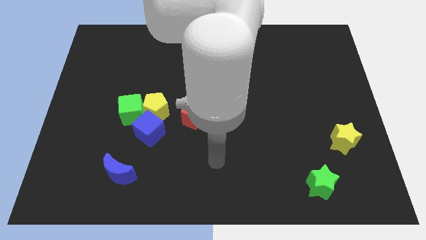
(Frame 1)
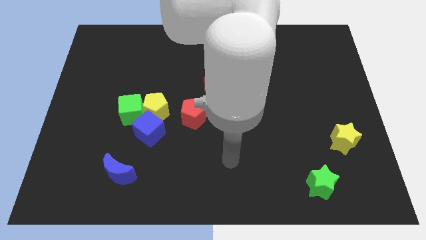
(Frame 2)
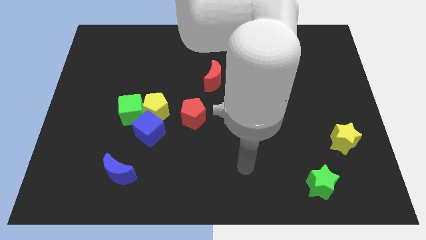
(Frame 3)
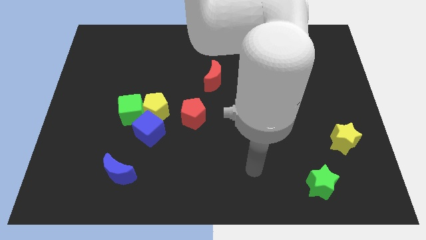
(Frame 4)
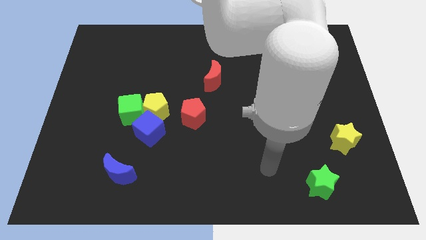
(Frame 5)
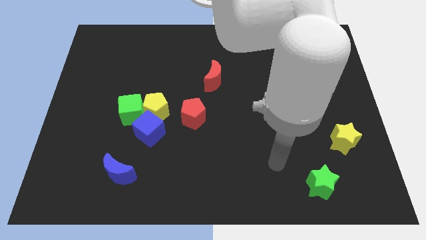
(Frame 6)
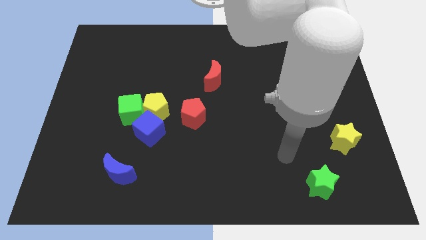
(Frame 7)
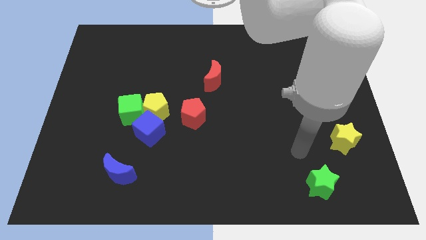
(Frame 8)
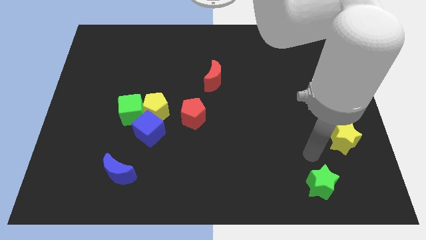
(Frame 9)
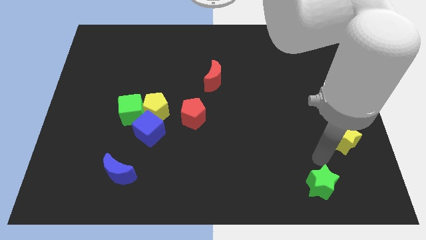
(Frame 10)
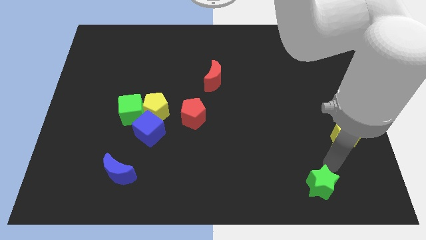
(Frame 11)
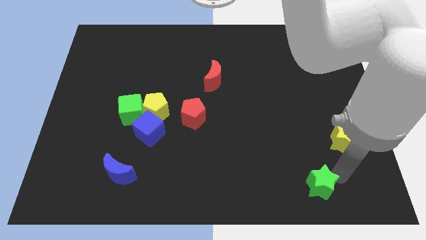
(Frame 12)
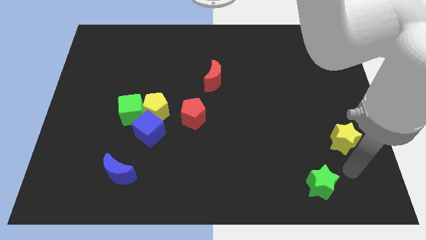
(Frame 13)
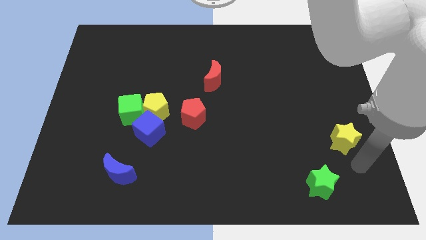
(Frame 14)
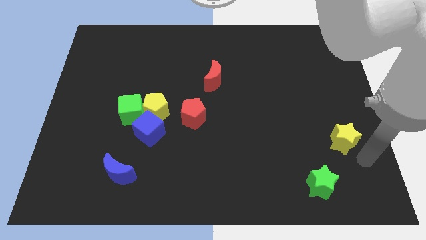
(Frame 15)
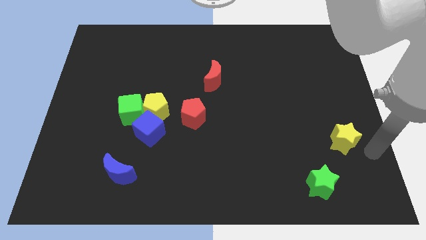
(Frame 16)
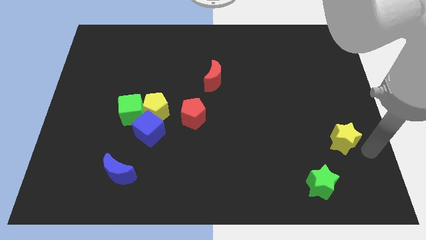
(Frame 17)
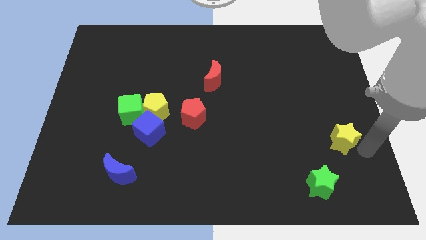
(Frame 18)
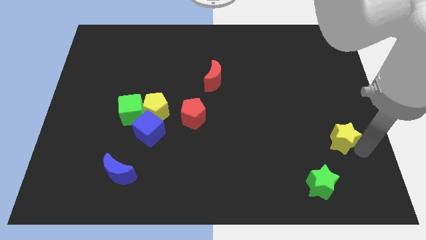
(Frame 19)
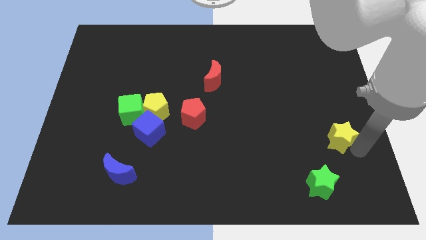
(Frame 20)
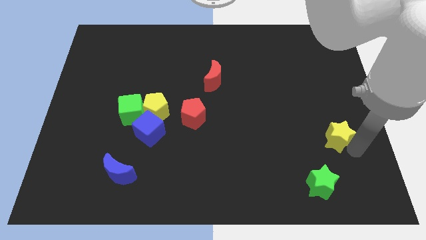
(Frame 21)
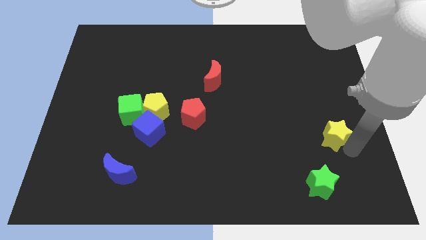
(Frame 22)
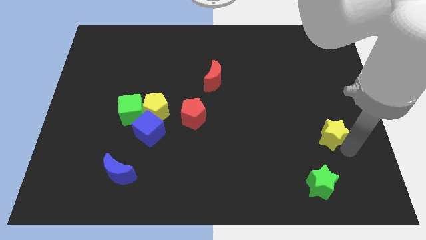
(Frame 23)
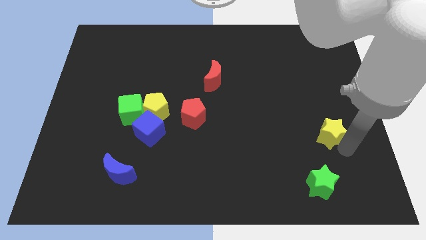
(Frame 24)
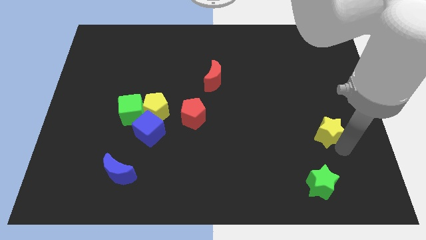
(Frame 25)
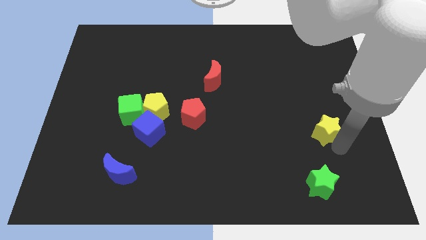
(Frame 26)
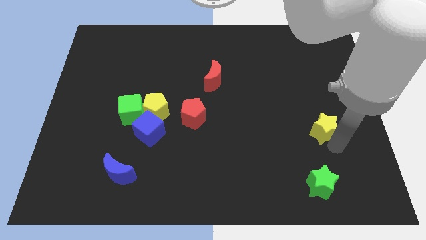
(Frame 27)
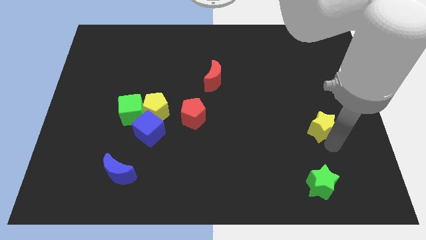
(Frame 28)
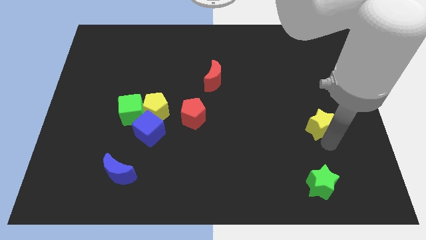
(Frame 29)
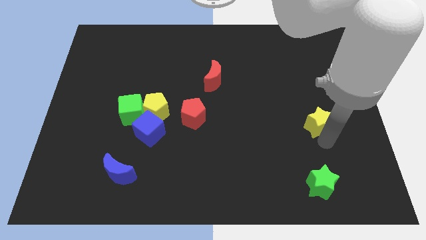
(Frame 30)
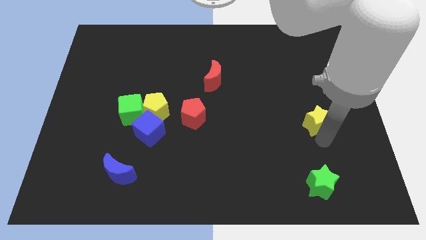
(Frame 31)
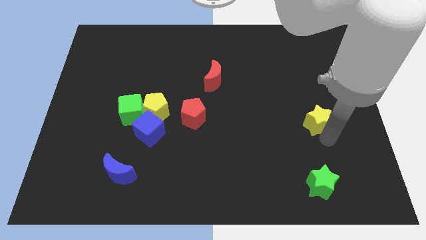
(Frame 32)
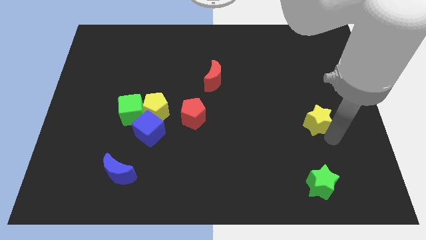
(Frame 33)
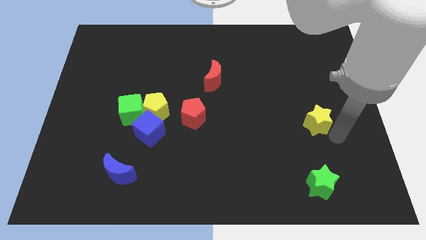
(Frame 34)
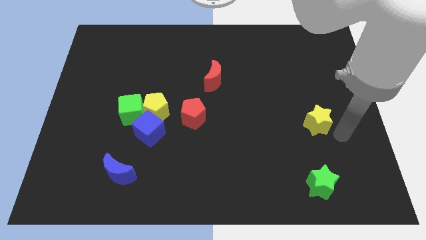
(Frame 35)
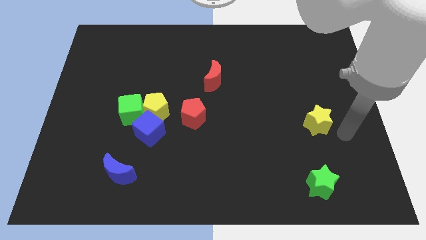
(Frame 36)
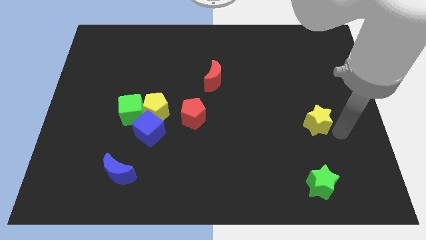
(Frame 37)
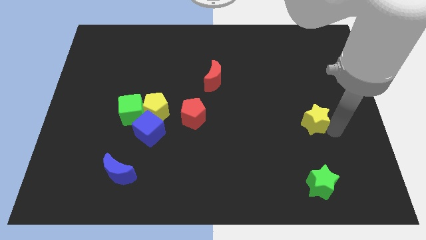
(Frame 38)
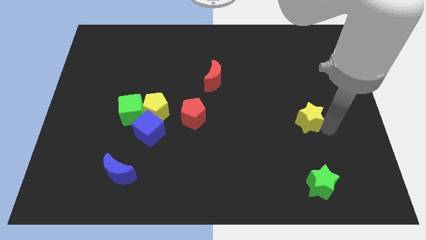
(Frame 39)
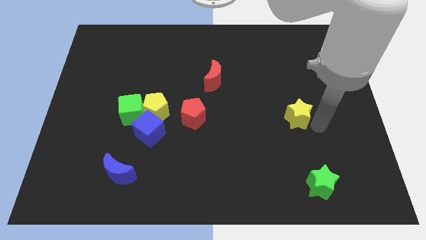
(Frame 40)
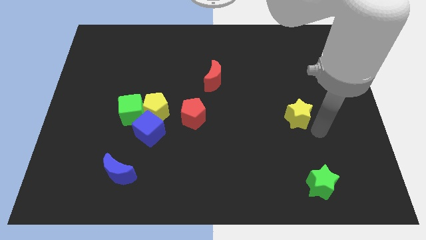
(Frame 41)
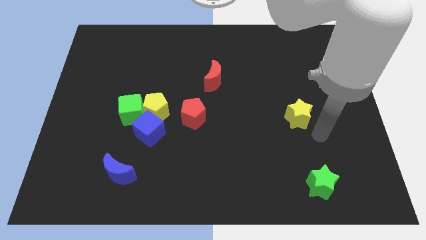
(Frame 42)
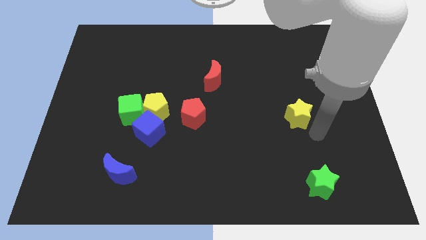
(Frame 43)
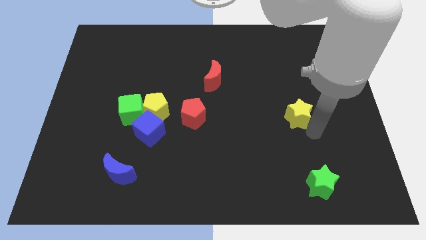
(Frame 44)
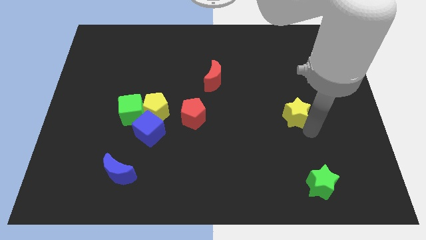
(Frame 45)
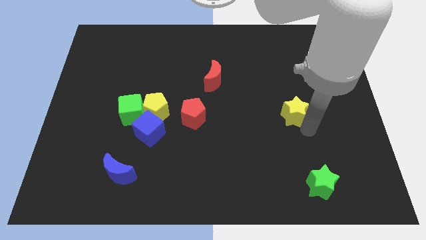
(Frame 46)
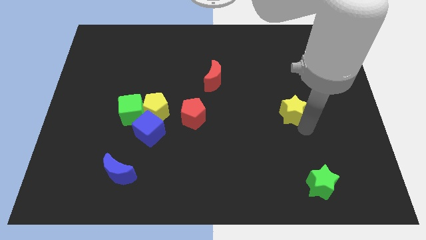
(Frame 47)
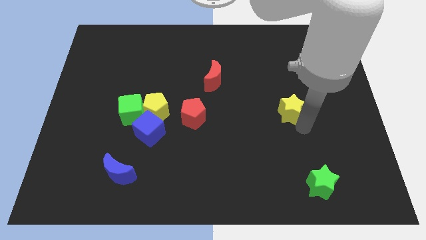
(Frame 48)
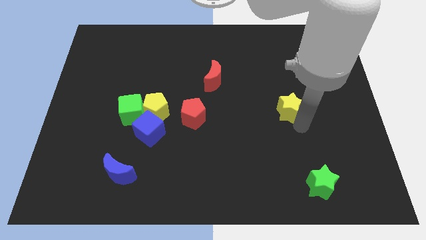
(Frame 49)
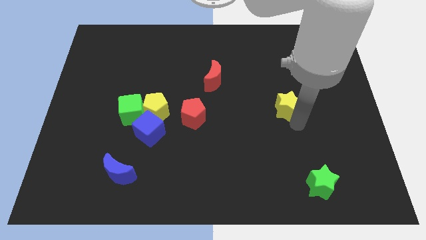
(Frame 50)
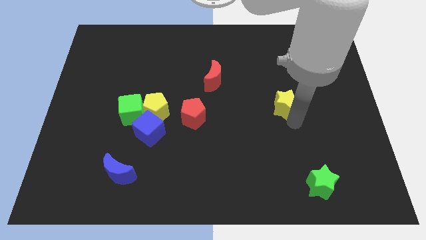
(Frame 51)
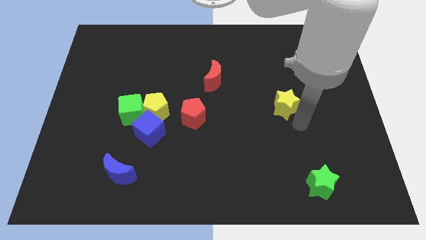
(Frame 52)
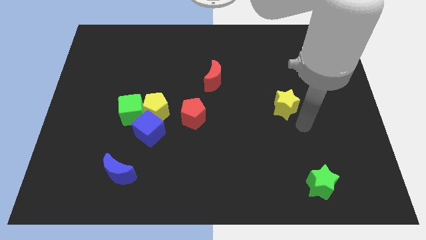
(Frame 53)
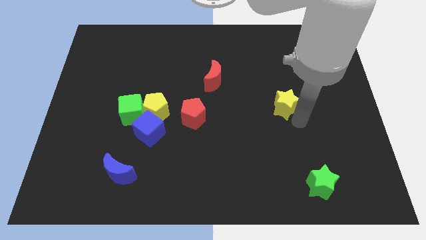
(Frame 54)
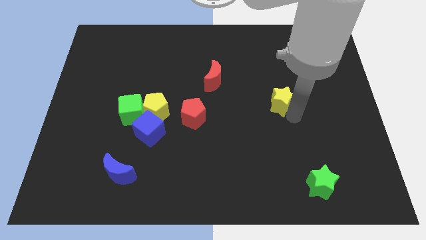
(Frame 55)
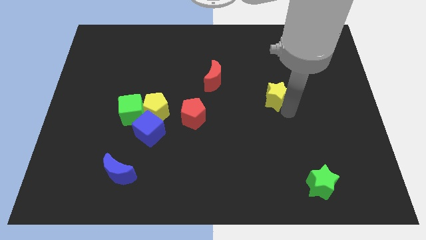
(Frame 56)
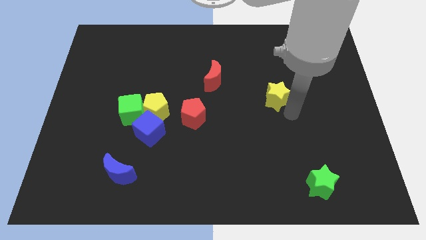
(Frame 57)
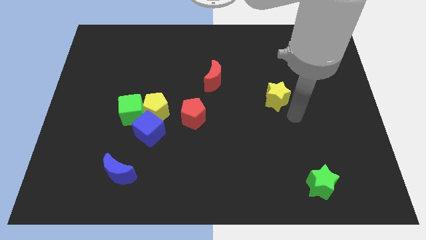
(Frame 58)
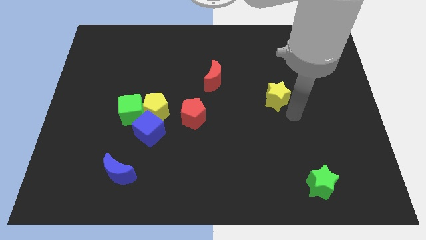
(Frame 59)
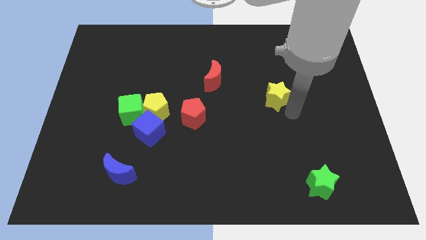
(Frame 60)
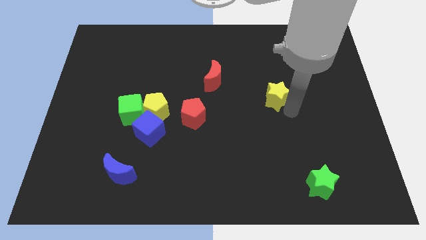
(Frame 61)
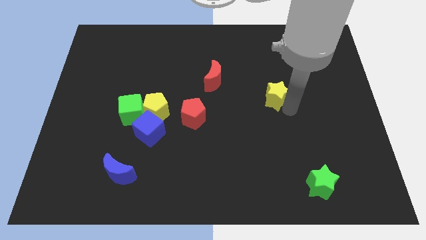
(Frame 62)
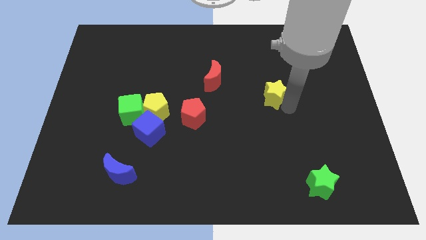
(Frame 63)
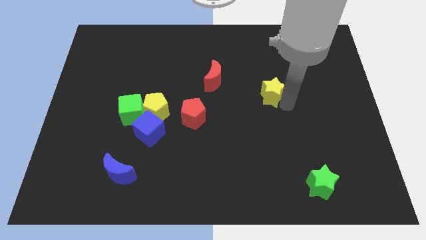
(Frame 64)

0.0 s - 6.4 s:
slide the yellow star upwards and to the left diagonally

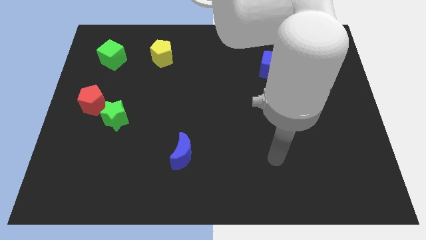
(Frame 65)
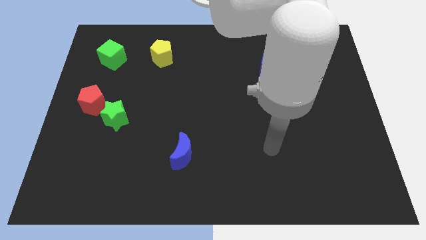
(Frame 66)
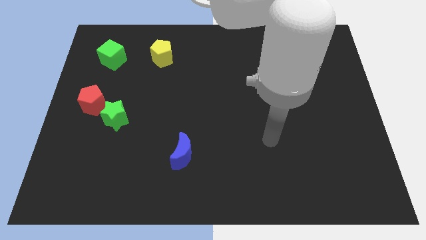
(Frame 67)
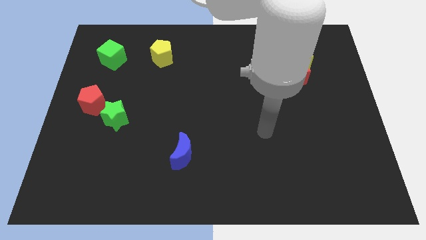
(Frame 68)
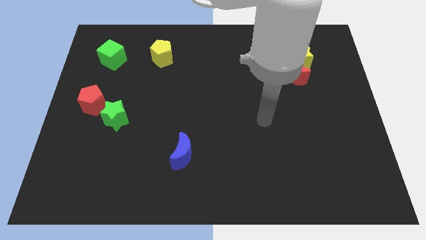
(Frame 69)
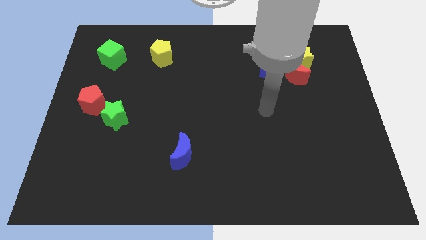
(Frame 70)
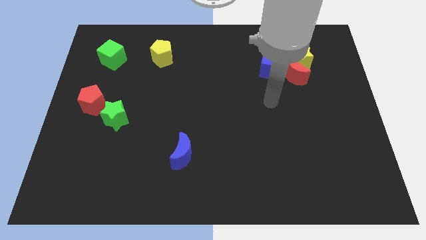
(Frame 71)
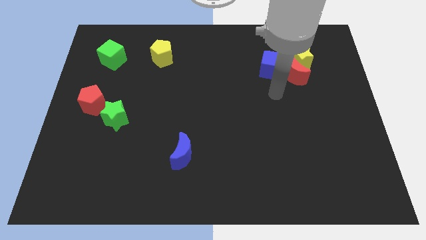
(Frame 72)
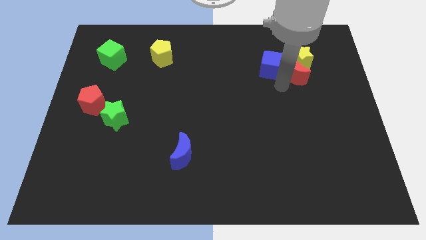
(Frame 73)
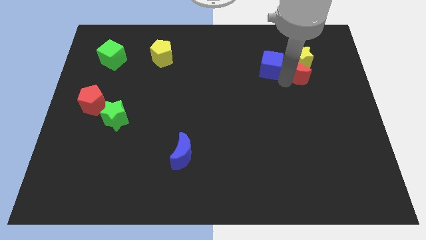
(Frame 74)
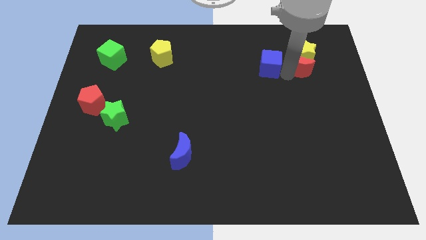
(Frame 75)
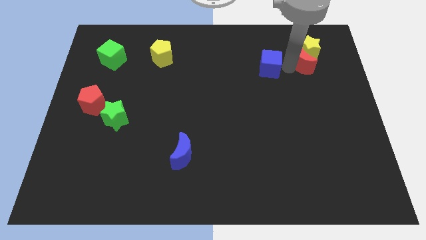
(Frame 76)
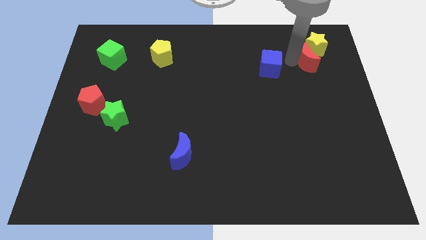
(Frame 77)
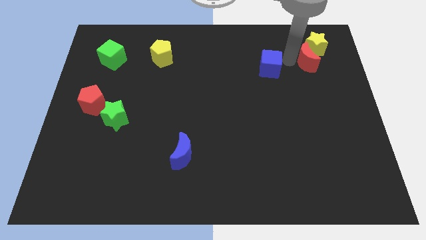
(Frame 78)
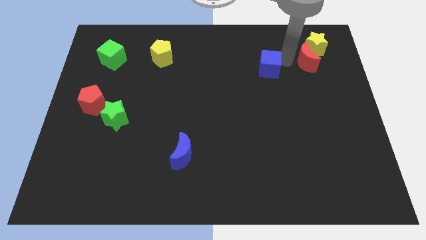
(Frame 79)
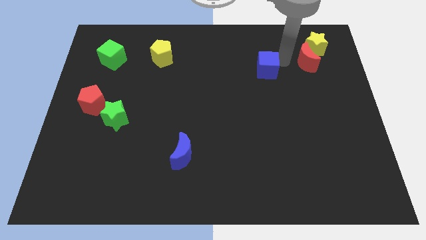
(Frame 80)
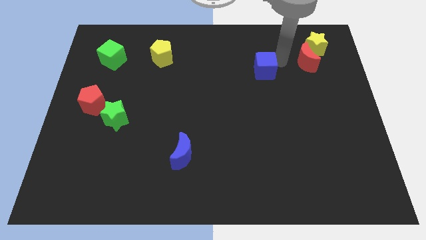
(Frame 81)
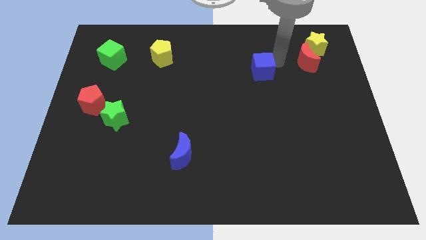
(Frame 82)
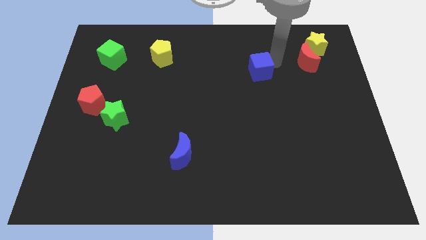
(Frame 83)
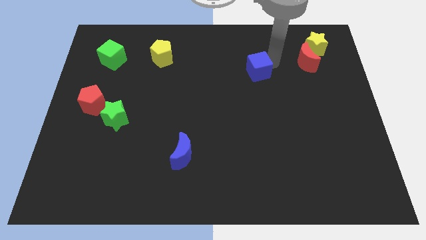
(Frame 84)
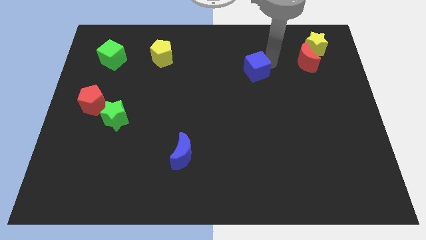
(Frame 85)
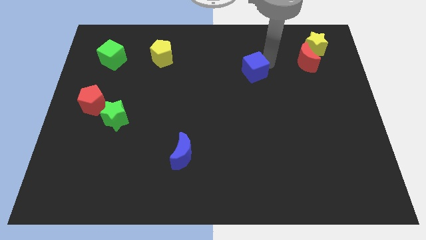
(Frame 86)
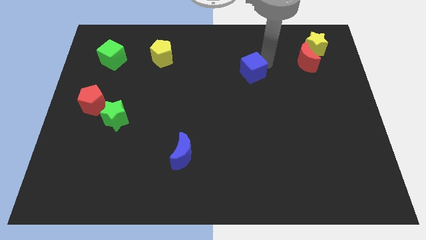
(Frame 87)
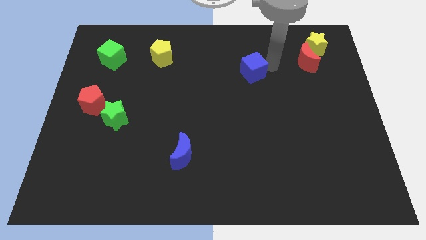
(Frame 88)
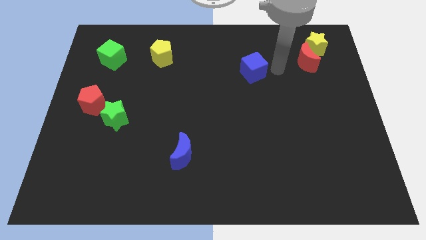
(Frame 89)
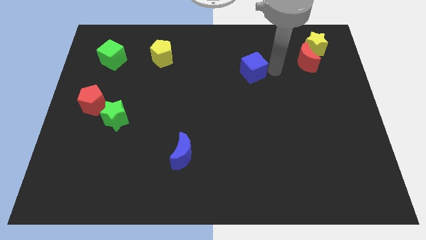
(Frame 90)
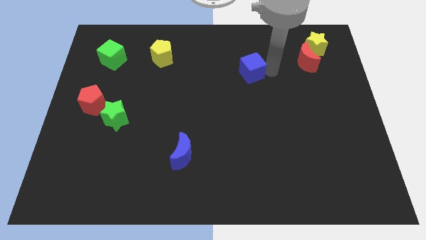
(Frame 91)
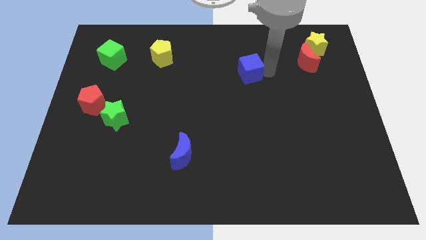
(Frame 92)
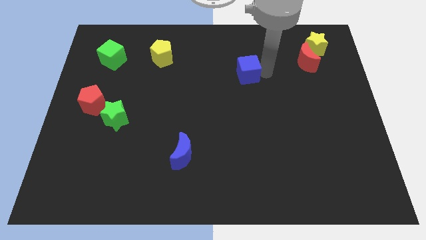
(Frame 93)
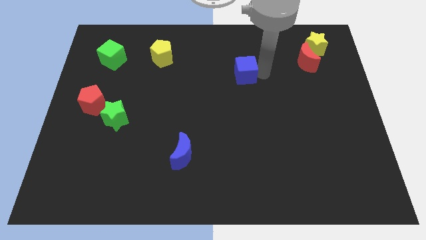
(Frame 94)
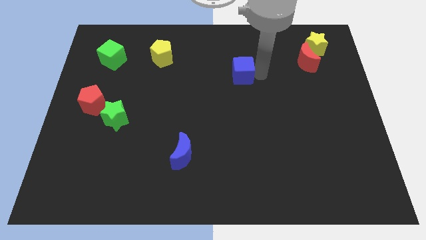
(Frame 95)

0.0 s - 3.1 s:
slightly move the blue cube left
